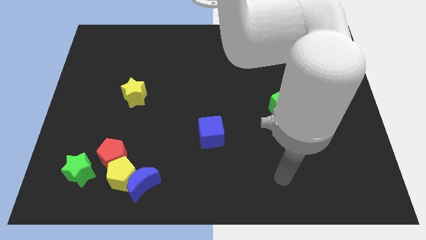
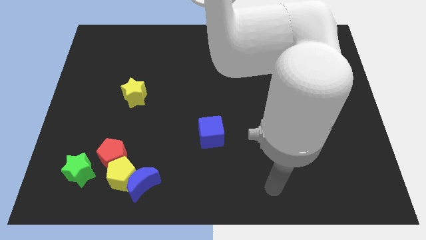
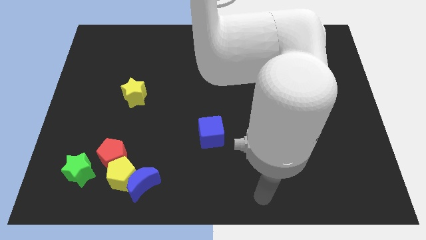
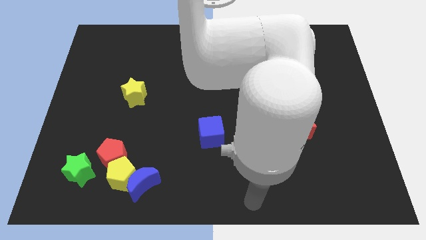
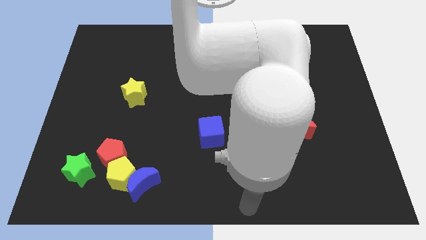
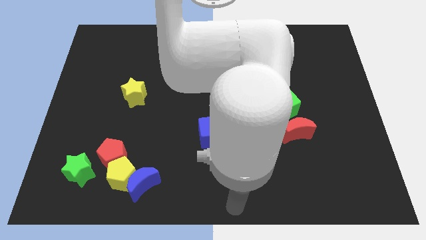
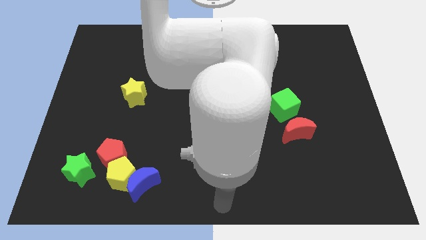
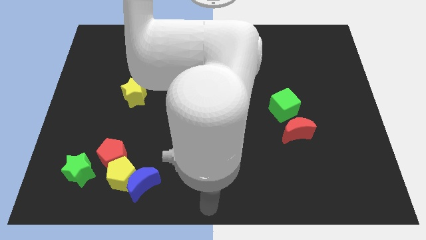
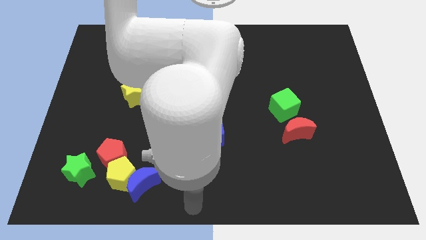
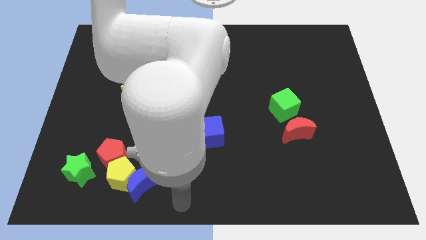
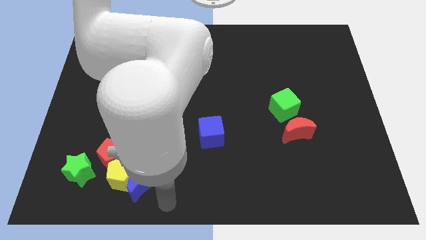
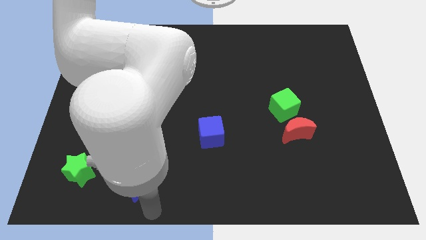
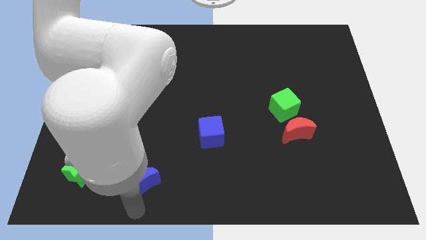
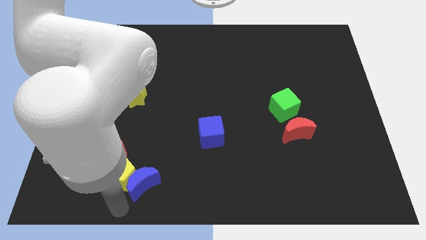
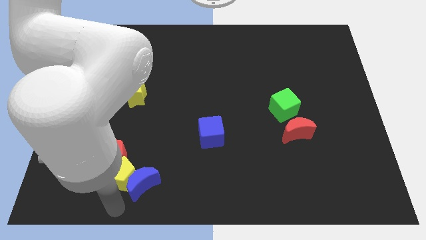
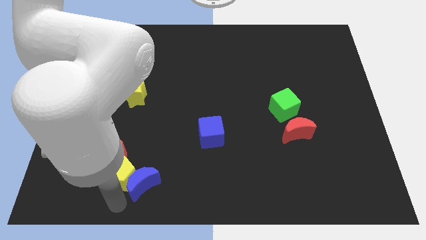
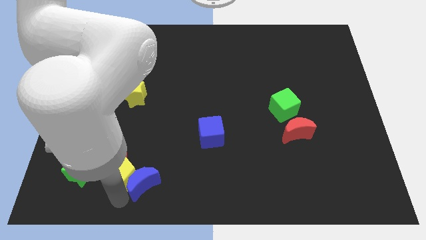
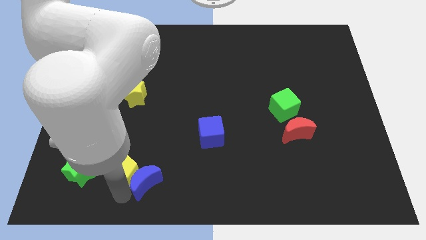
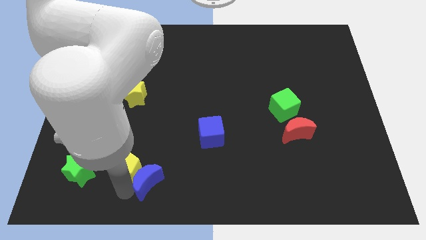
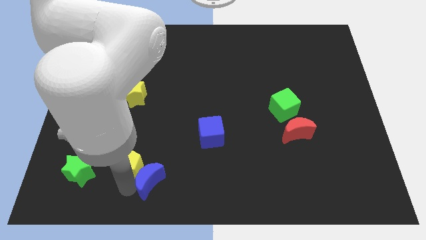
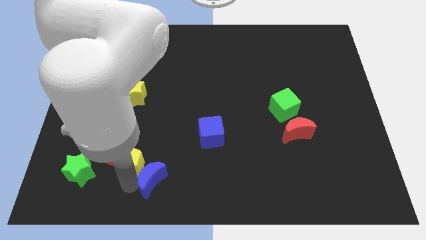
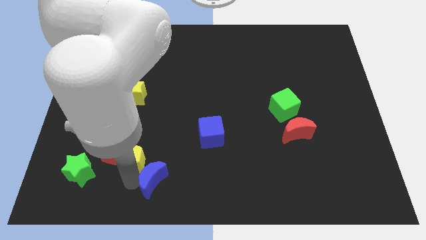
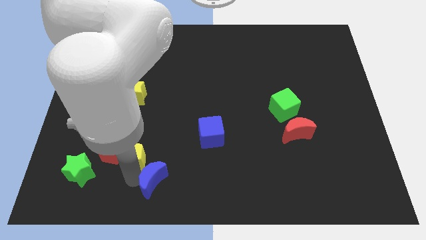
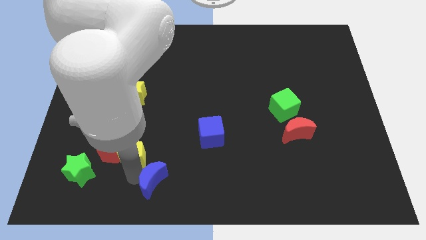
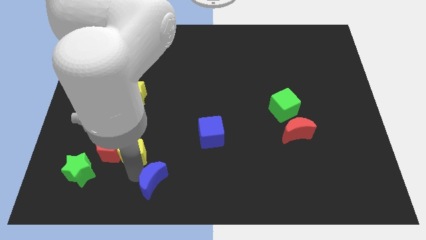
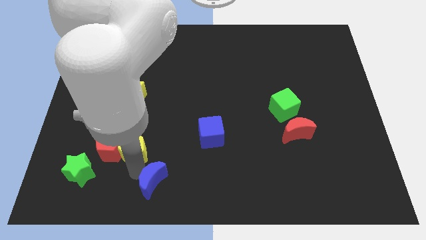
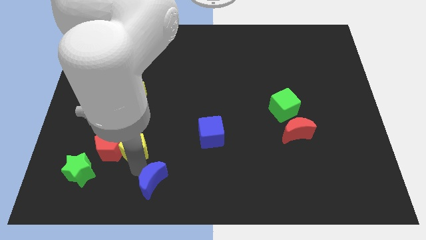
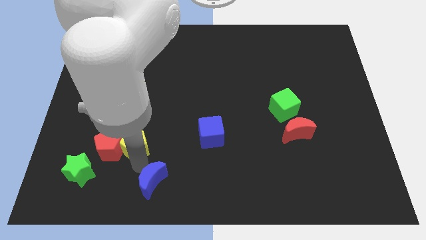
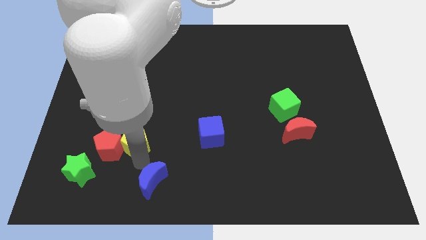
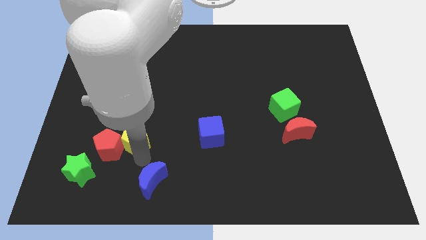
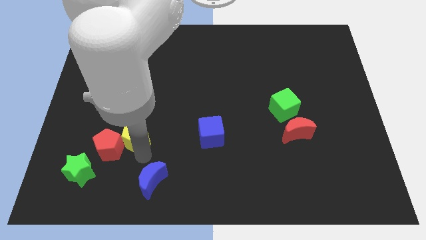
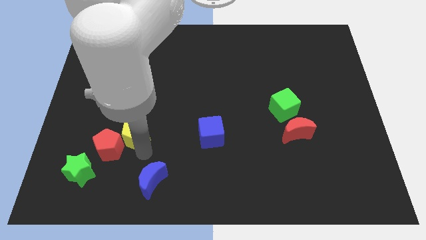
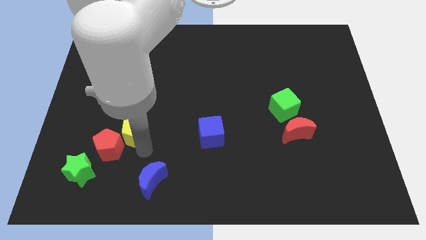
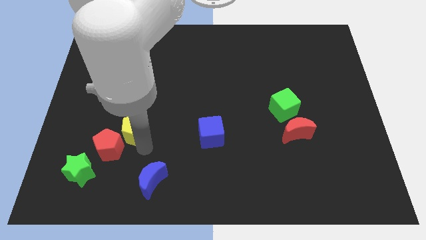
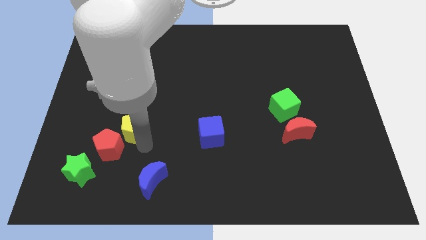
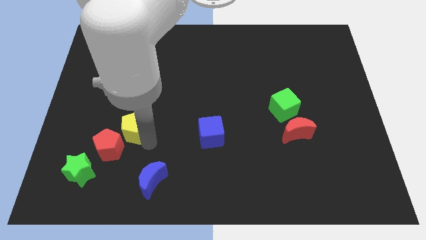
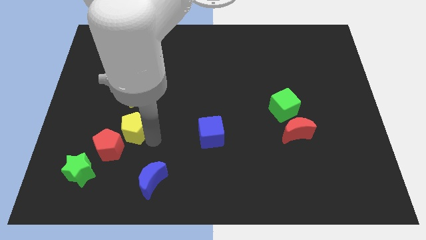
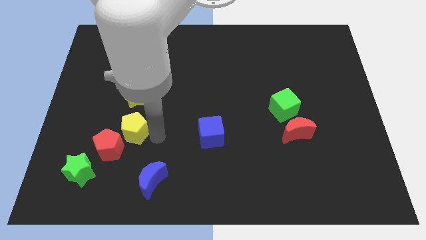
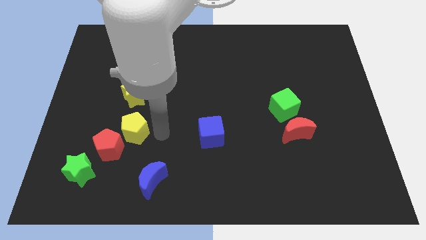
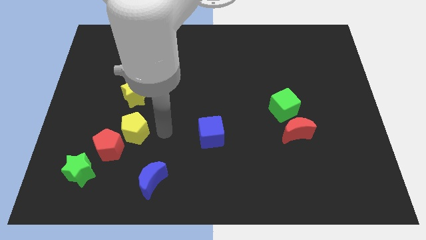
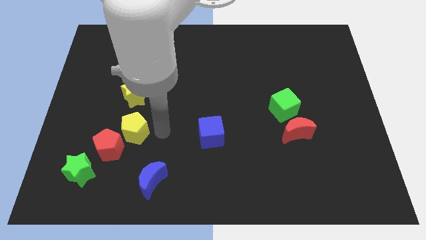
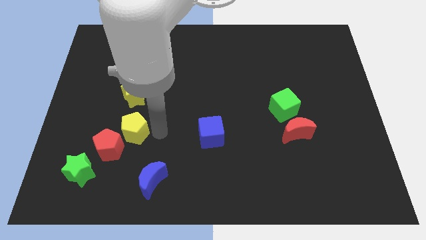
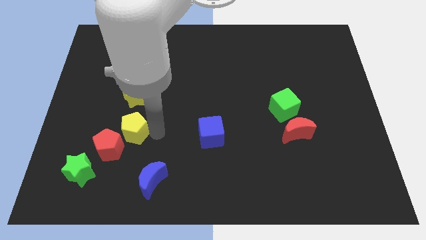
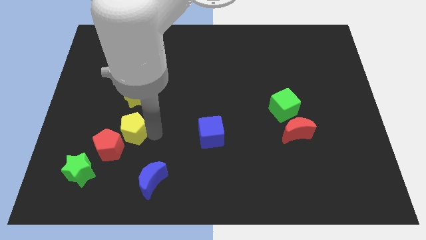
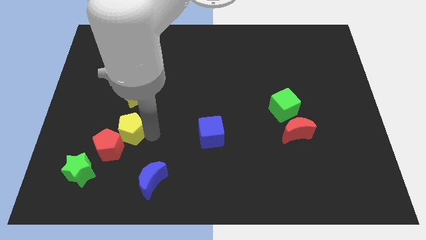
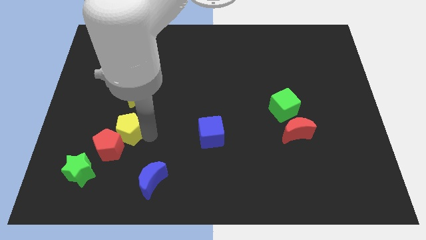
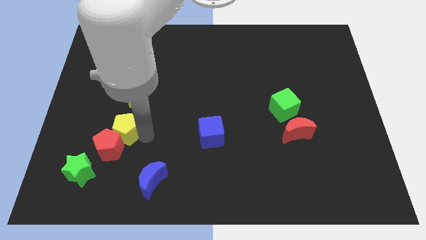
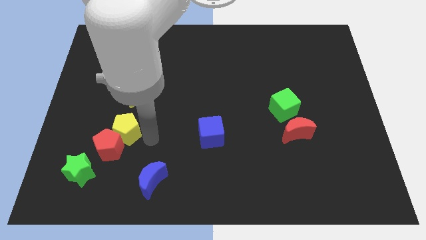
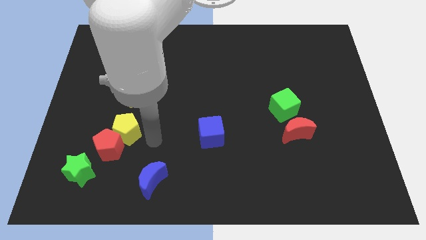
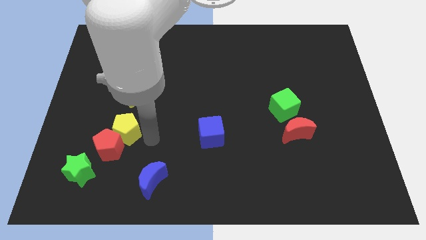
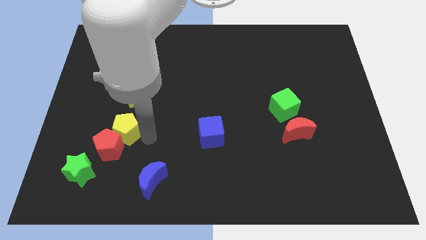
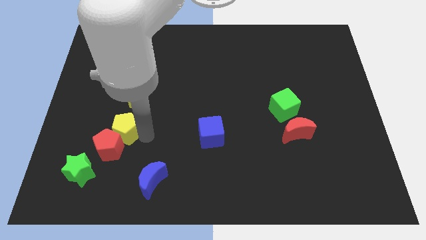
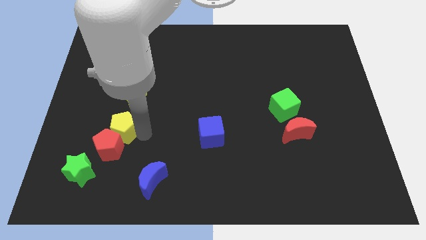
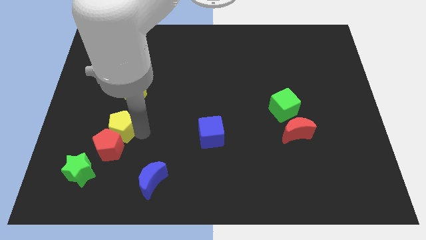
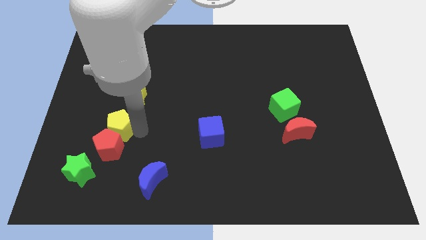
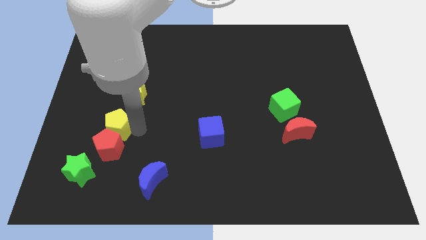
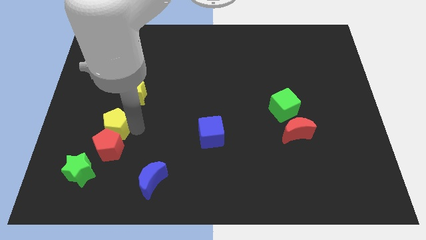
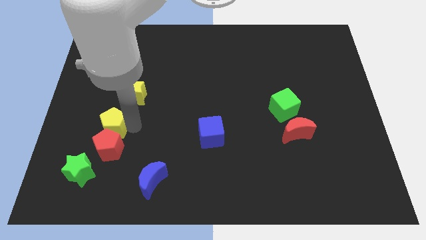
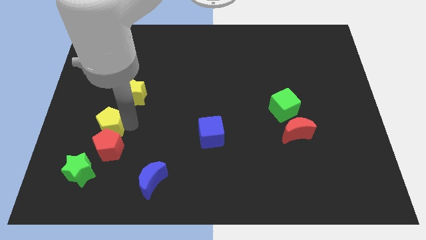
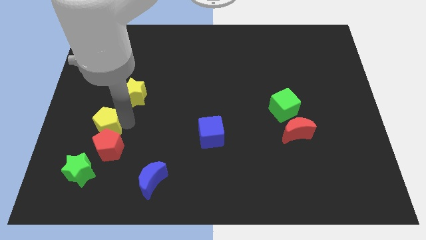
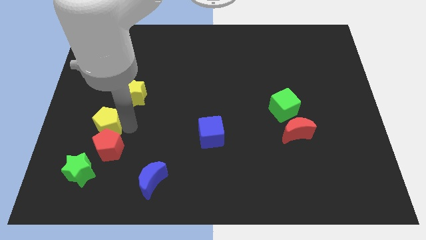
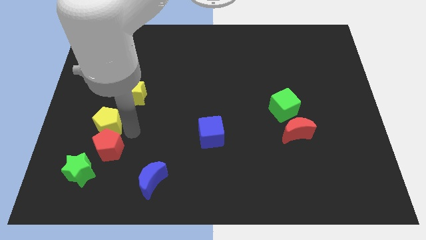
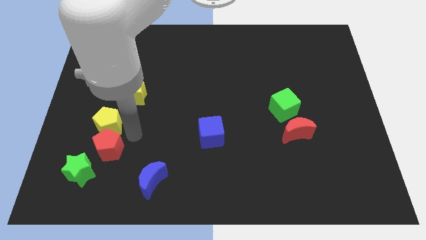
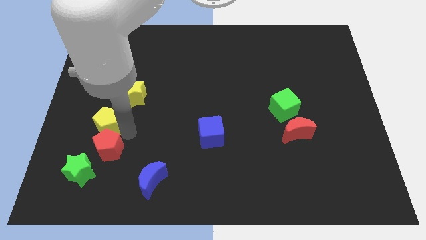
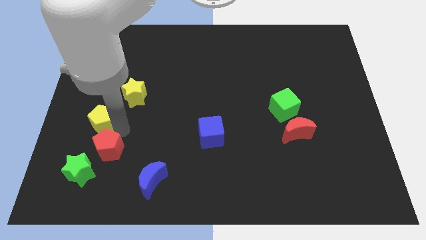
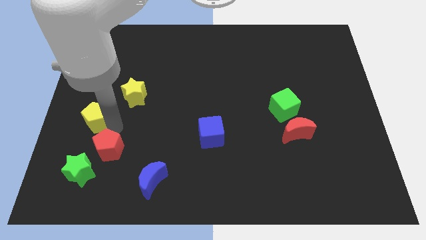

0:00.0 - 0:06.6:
put the yellow pentagon to the center left
